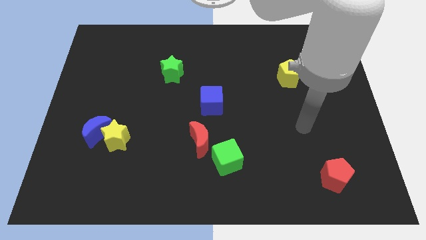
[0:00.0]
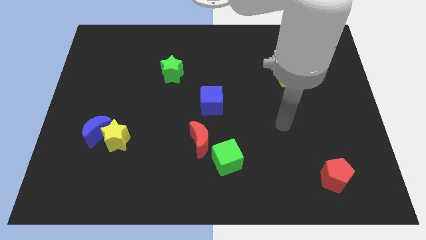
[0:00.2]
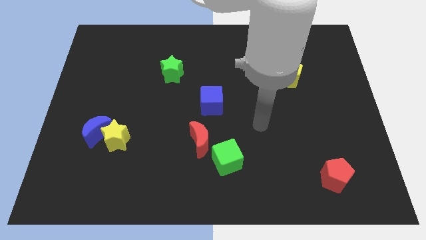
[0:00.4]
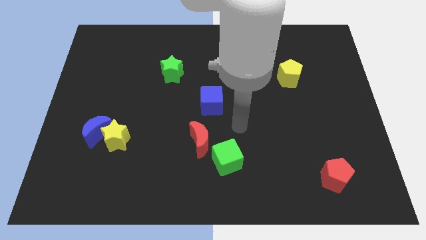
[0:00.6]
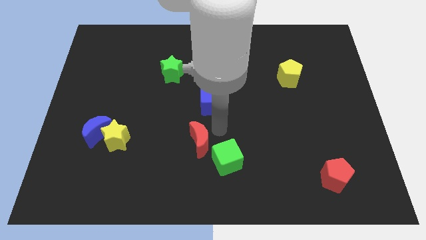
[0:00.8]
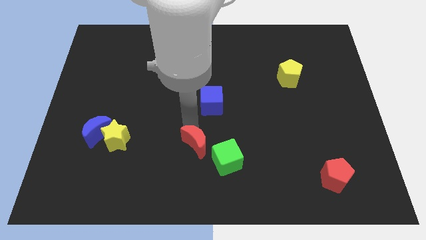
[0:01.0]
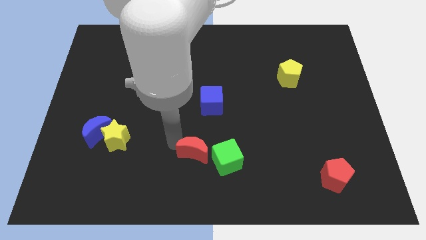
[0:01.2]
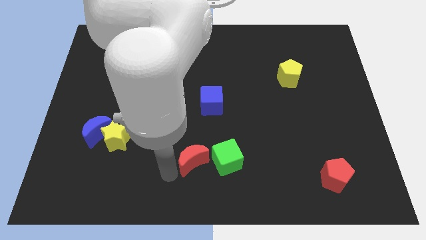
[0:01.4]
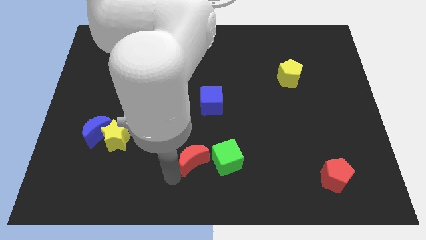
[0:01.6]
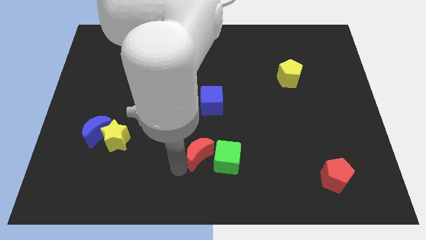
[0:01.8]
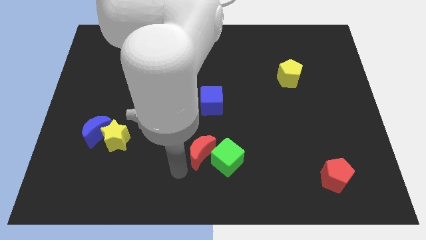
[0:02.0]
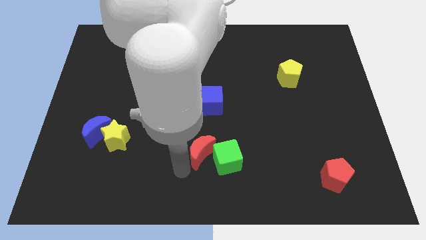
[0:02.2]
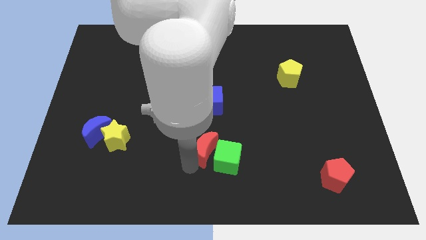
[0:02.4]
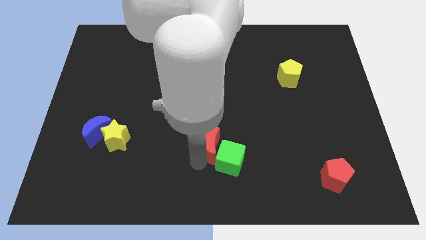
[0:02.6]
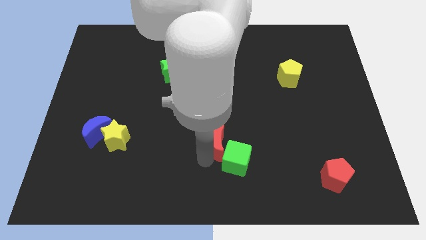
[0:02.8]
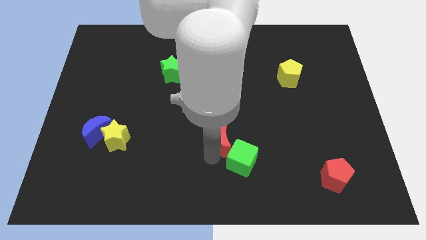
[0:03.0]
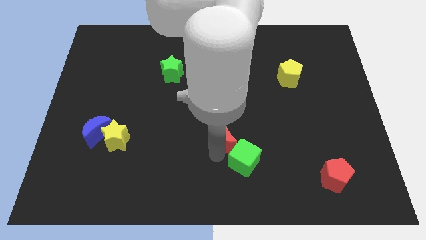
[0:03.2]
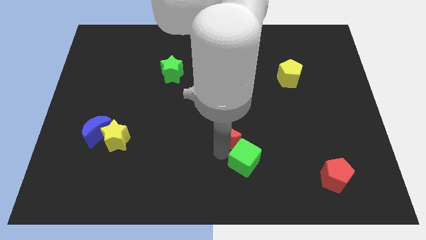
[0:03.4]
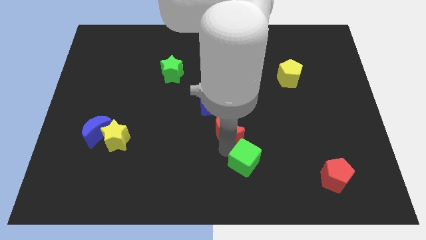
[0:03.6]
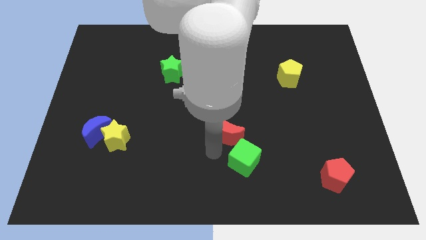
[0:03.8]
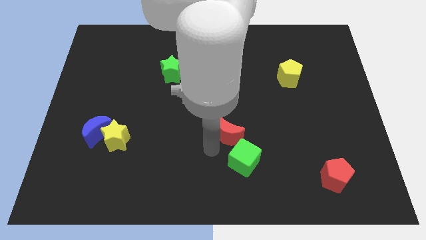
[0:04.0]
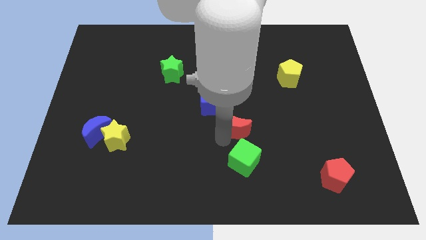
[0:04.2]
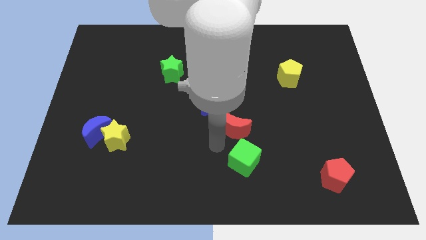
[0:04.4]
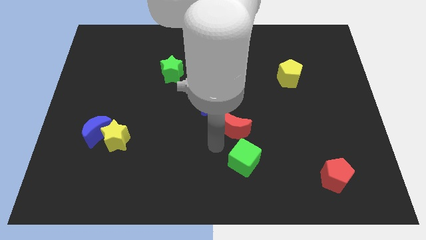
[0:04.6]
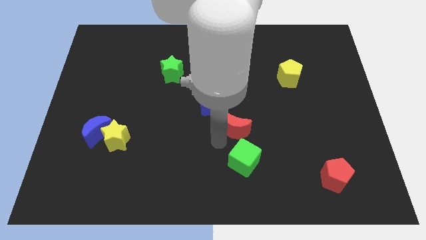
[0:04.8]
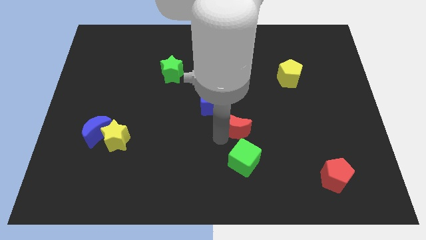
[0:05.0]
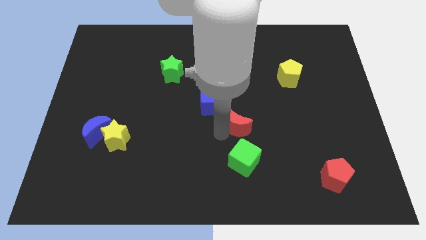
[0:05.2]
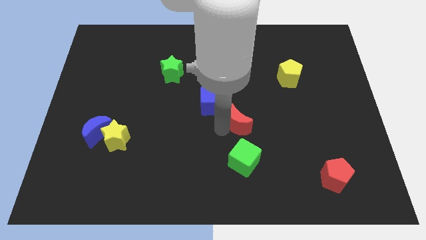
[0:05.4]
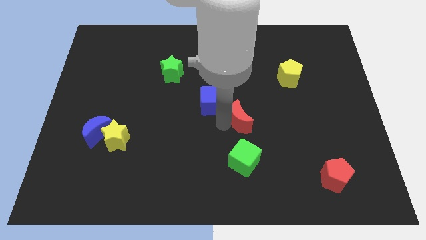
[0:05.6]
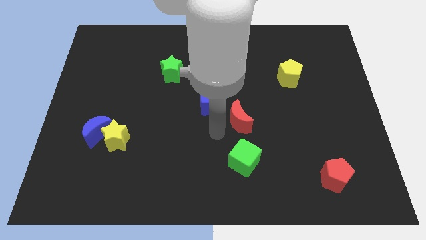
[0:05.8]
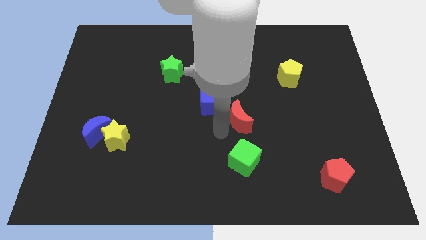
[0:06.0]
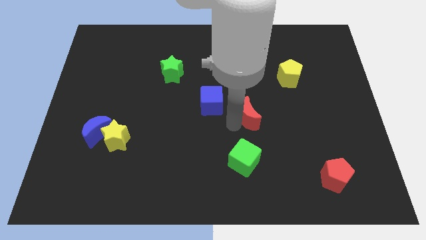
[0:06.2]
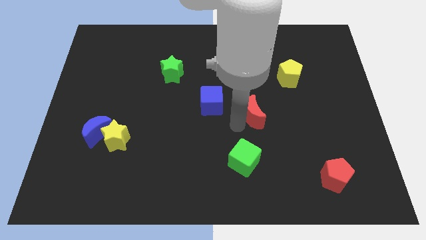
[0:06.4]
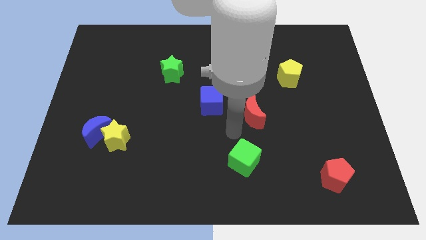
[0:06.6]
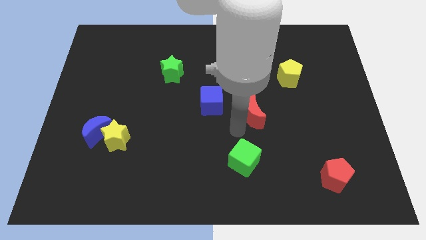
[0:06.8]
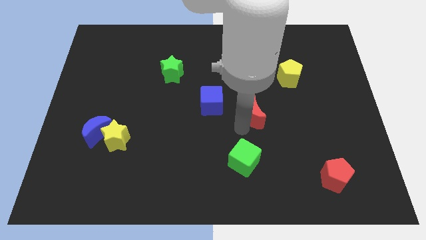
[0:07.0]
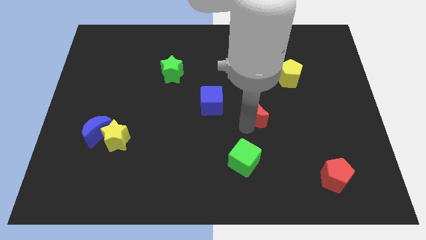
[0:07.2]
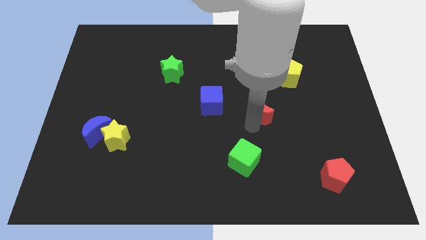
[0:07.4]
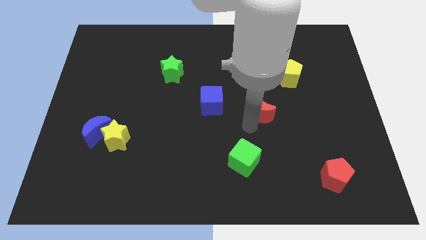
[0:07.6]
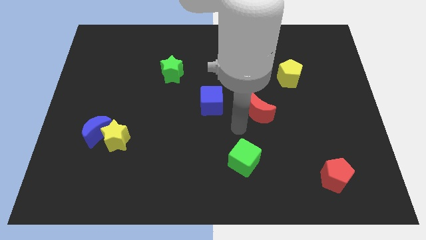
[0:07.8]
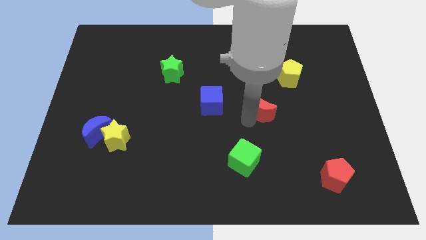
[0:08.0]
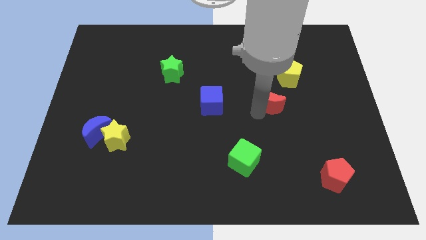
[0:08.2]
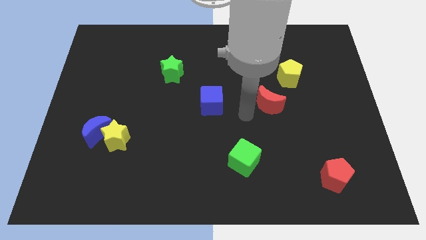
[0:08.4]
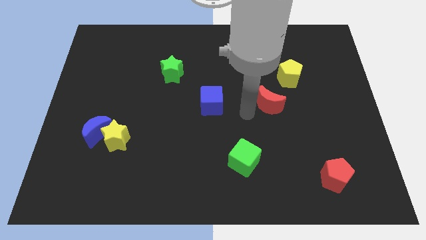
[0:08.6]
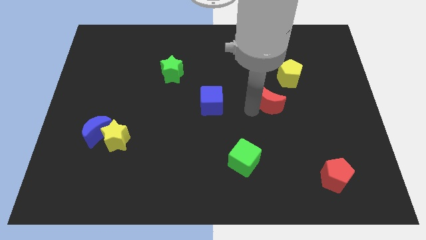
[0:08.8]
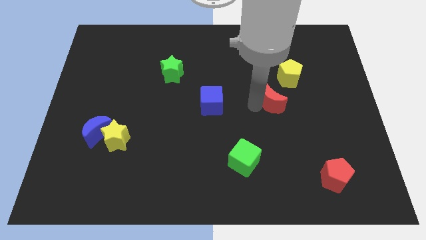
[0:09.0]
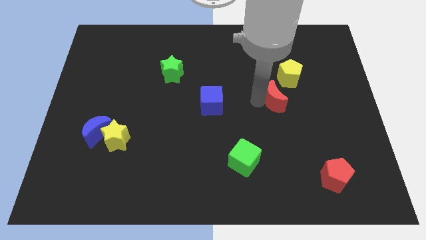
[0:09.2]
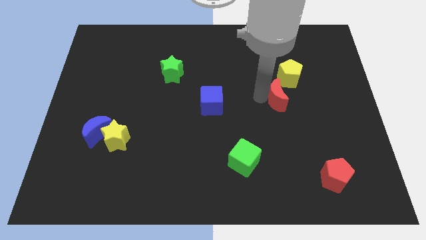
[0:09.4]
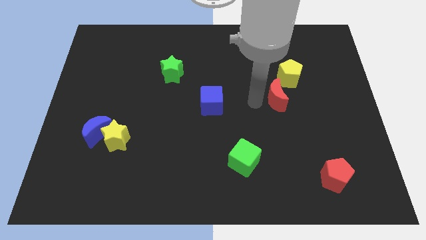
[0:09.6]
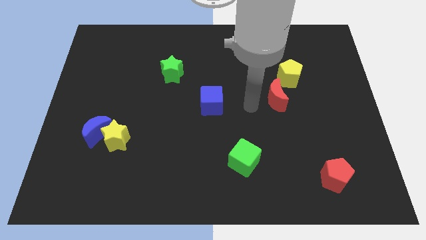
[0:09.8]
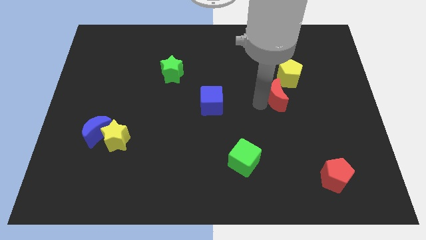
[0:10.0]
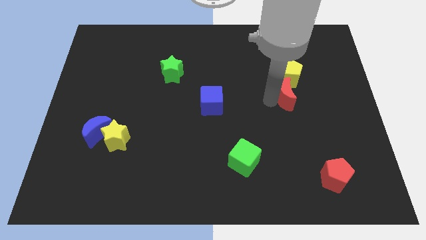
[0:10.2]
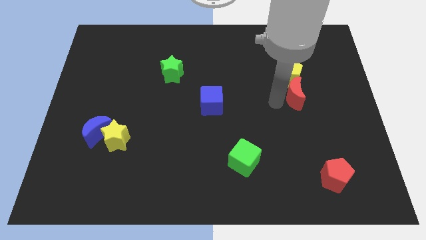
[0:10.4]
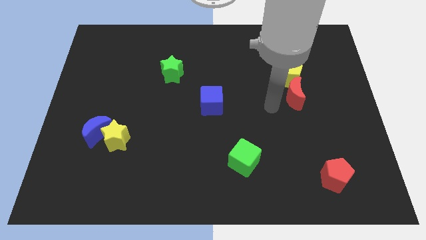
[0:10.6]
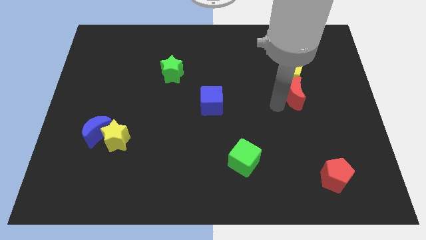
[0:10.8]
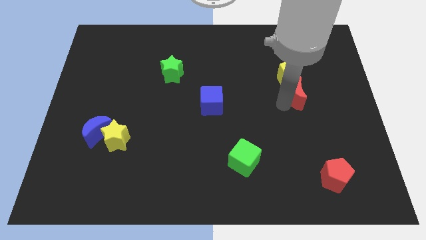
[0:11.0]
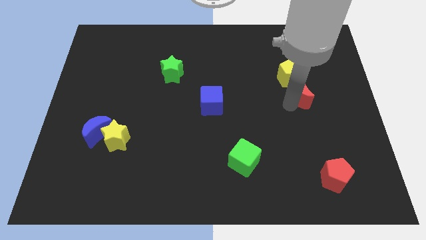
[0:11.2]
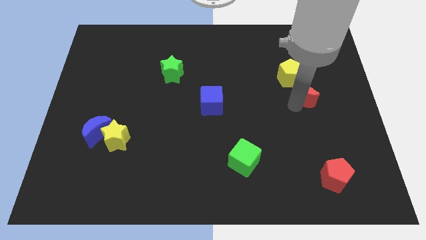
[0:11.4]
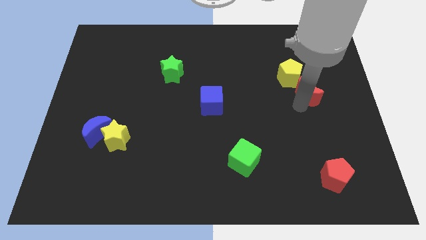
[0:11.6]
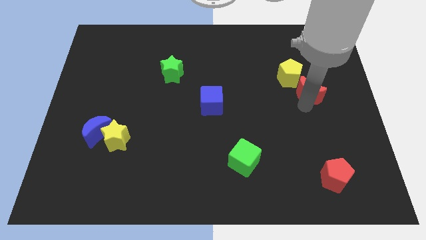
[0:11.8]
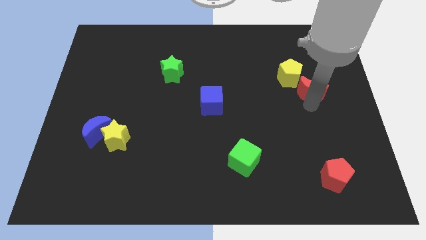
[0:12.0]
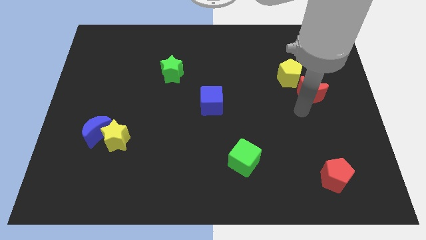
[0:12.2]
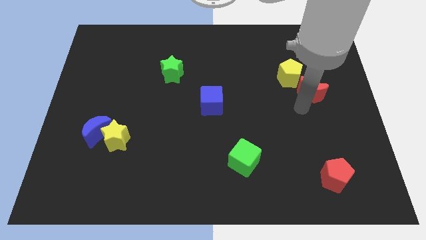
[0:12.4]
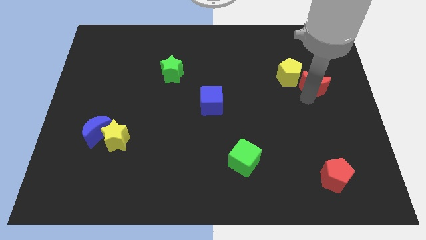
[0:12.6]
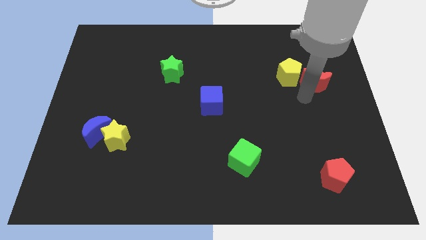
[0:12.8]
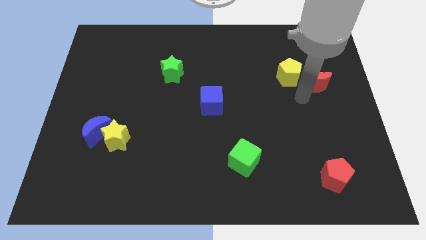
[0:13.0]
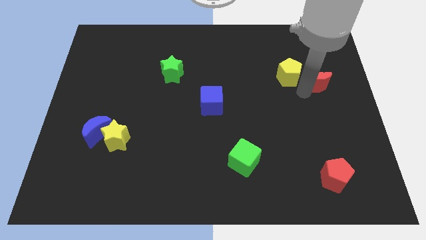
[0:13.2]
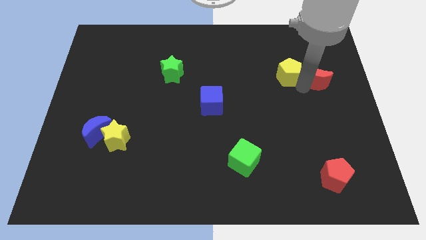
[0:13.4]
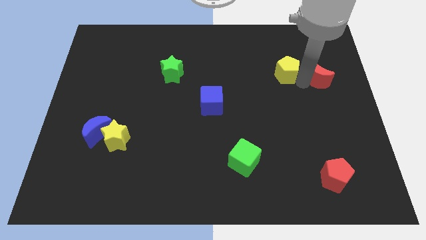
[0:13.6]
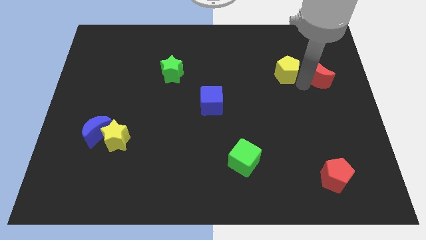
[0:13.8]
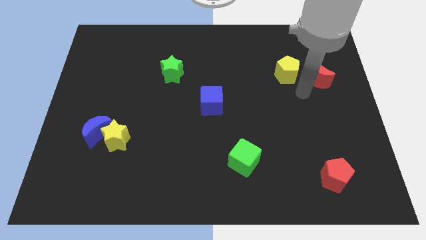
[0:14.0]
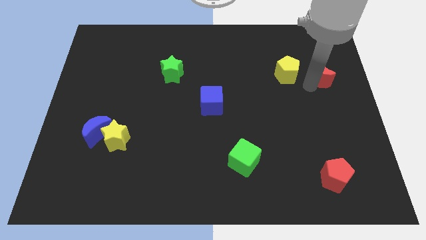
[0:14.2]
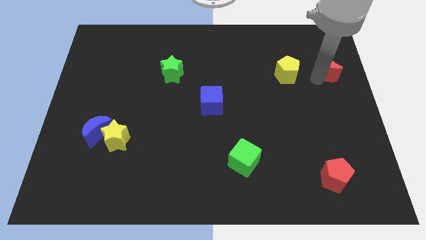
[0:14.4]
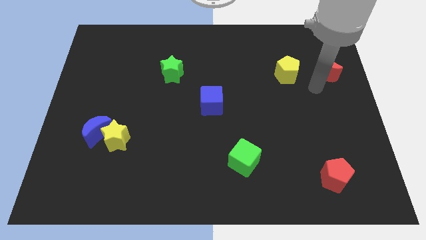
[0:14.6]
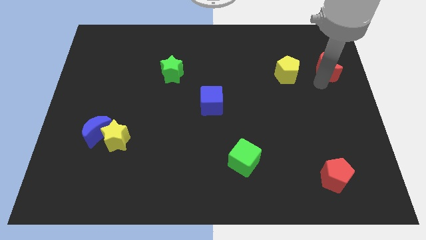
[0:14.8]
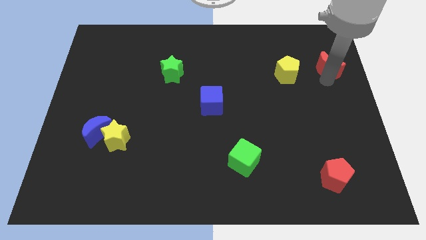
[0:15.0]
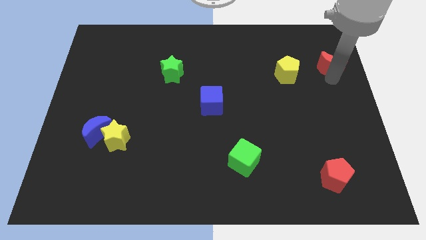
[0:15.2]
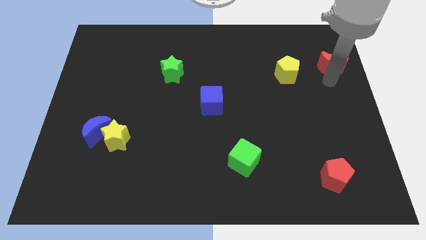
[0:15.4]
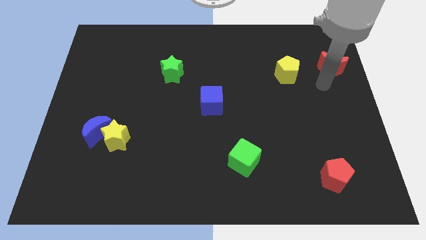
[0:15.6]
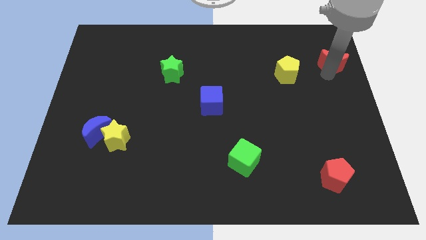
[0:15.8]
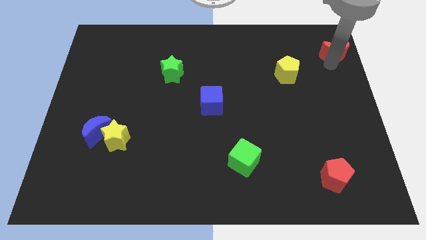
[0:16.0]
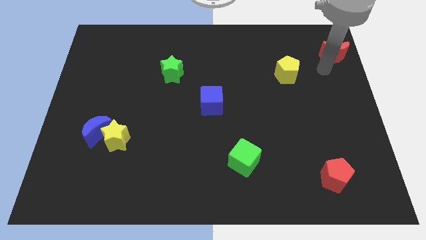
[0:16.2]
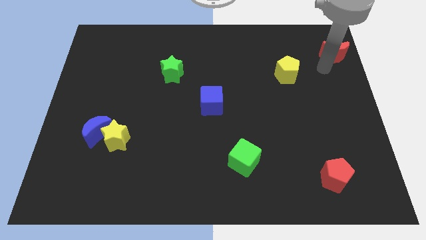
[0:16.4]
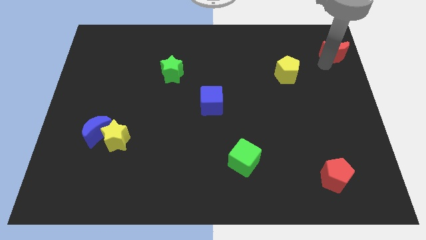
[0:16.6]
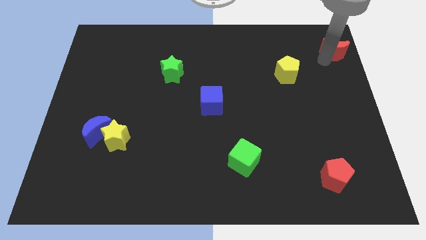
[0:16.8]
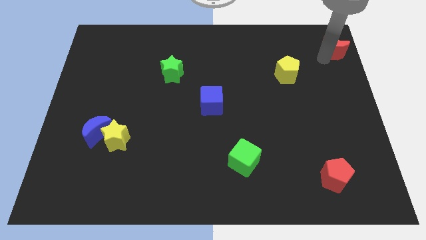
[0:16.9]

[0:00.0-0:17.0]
push the red moon to the top right
